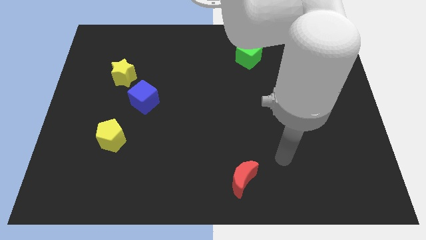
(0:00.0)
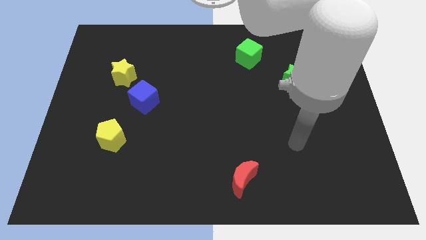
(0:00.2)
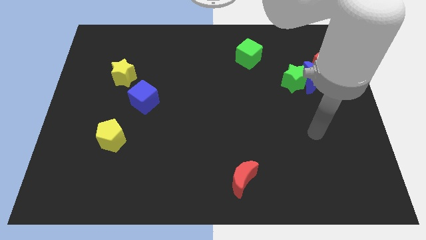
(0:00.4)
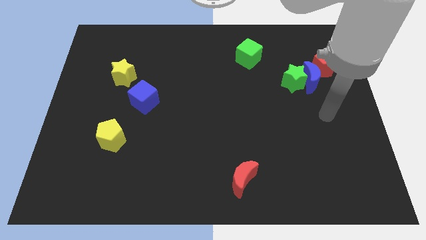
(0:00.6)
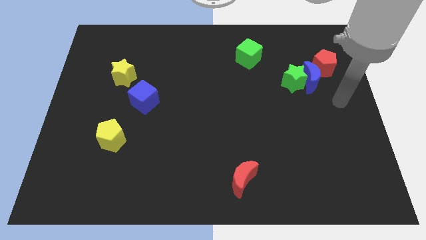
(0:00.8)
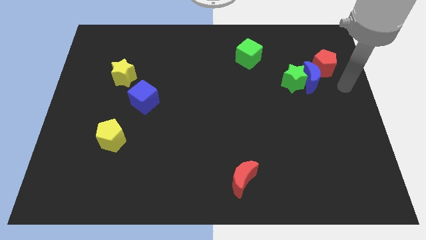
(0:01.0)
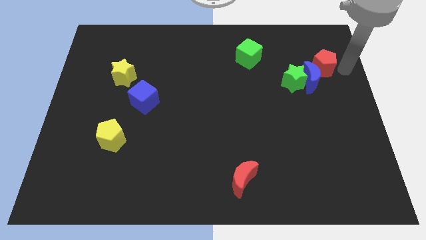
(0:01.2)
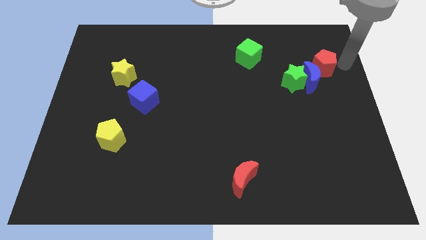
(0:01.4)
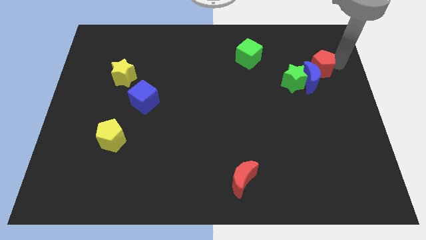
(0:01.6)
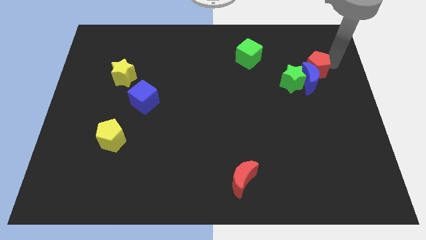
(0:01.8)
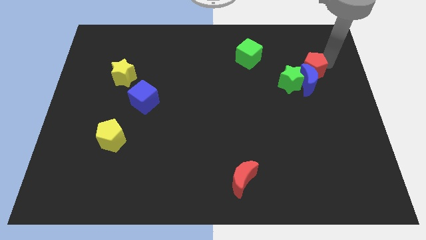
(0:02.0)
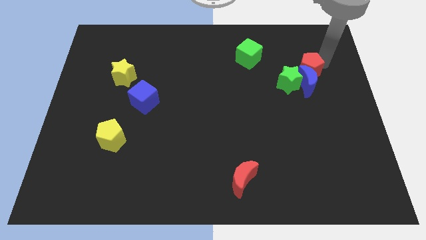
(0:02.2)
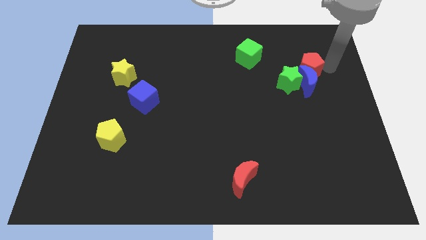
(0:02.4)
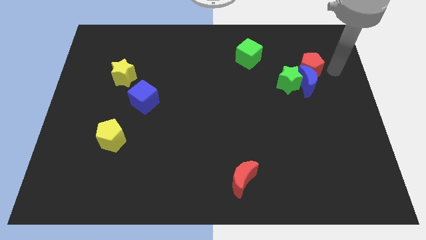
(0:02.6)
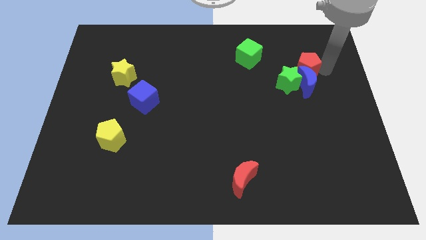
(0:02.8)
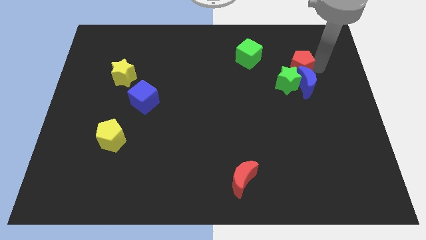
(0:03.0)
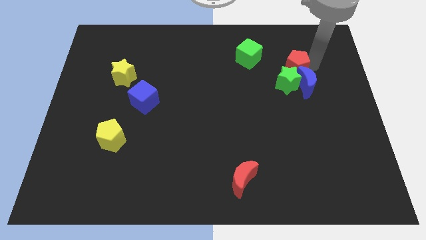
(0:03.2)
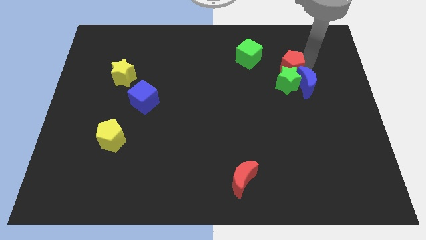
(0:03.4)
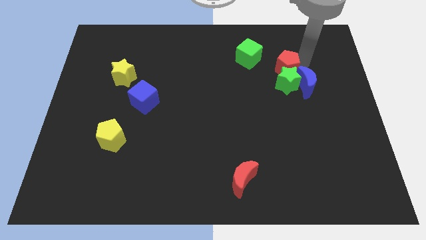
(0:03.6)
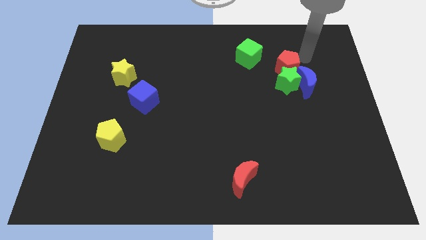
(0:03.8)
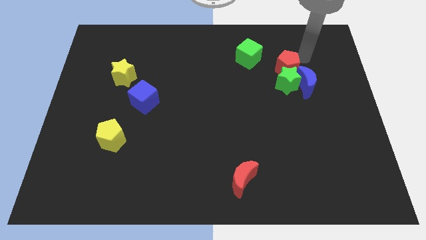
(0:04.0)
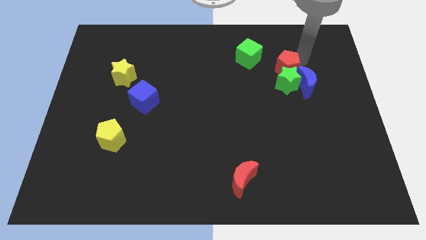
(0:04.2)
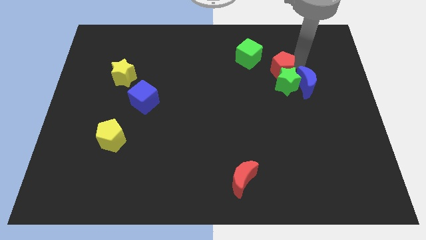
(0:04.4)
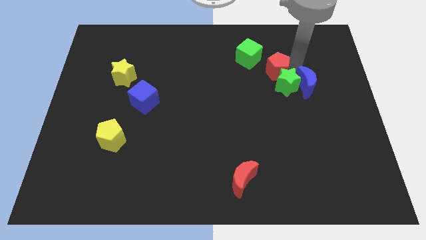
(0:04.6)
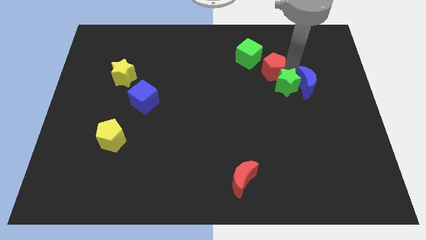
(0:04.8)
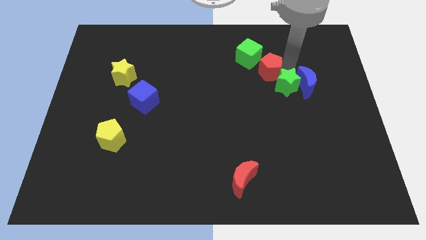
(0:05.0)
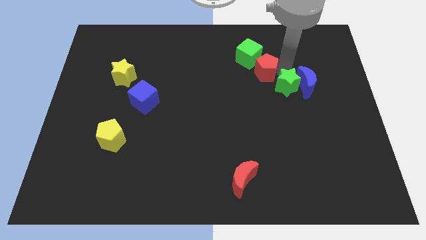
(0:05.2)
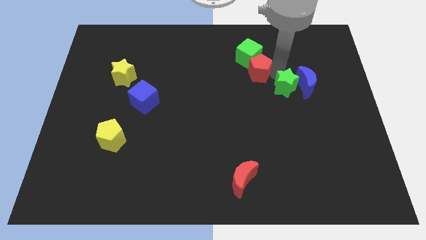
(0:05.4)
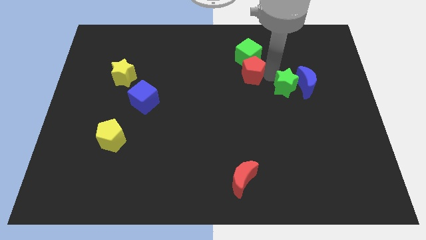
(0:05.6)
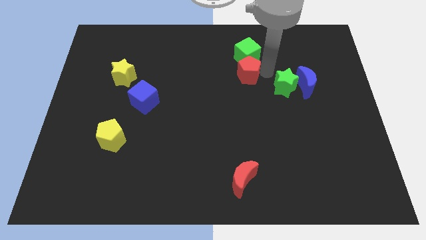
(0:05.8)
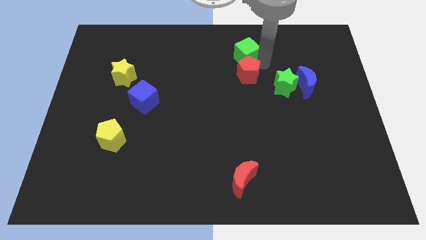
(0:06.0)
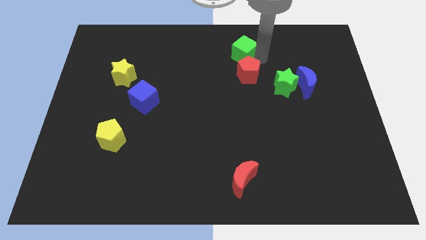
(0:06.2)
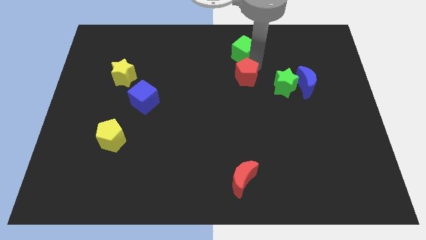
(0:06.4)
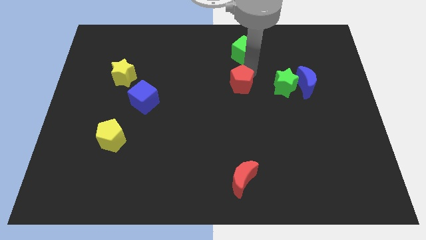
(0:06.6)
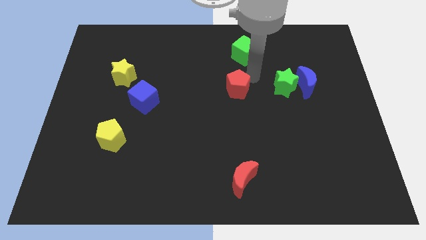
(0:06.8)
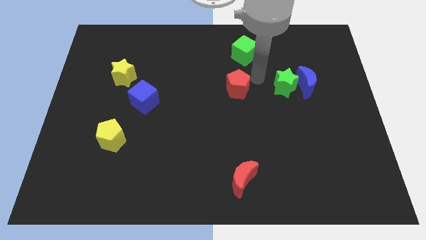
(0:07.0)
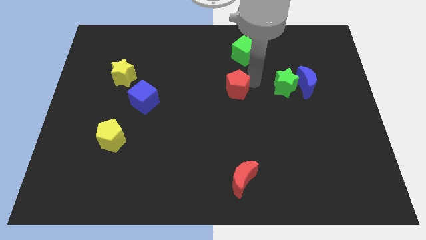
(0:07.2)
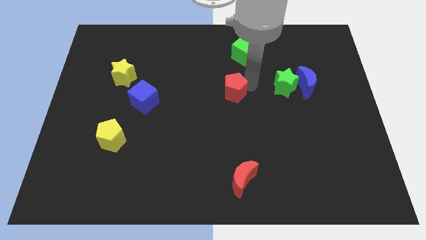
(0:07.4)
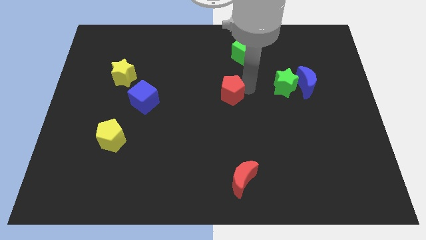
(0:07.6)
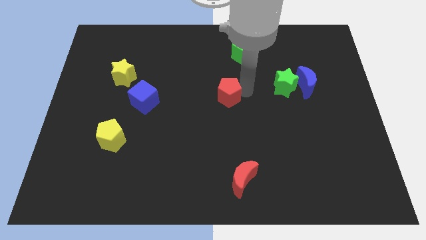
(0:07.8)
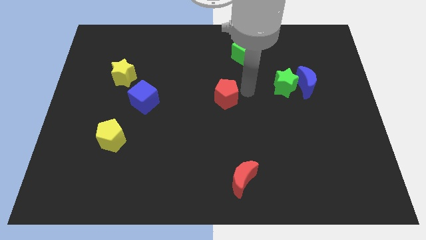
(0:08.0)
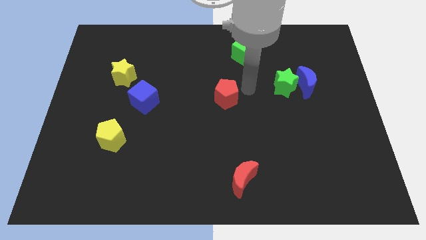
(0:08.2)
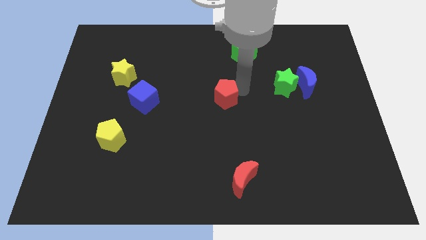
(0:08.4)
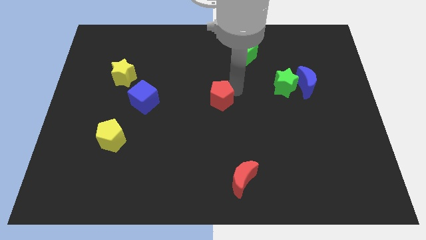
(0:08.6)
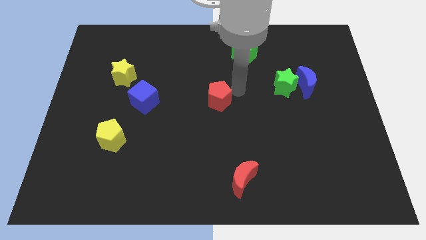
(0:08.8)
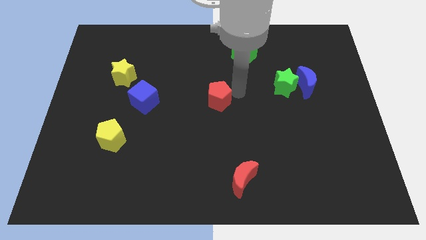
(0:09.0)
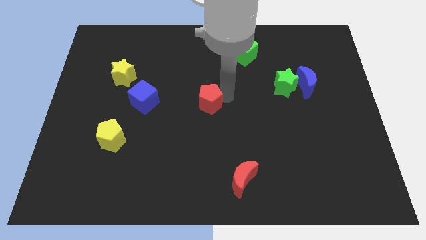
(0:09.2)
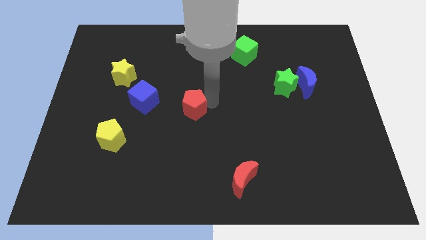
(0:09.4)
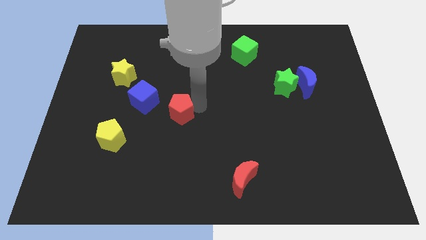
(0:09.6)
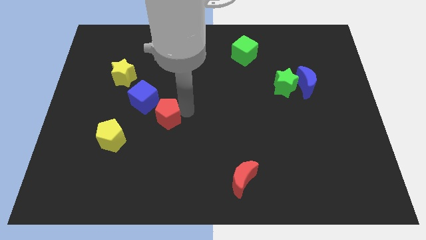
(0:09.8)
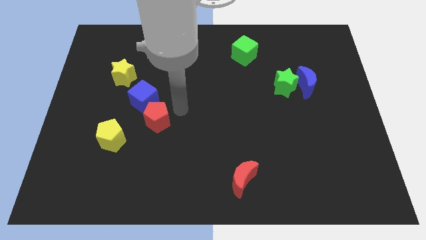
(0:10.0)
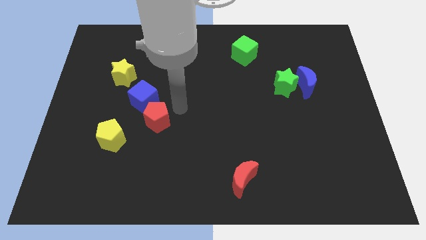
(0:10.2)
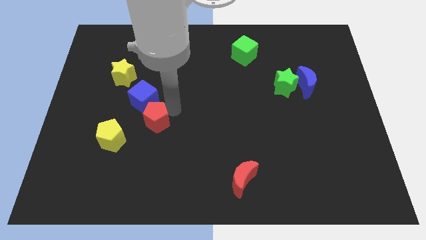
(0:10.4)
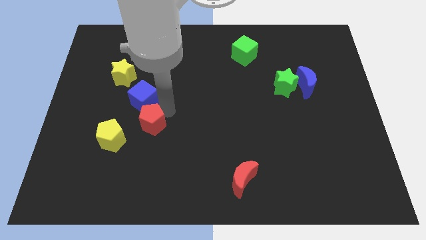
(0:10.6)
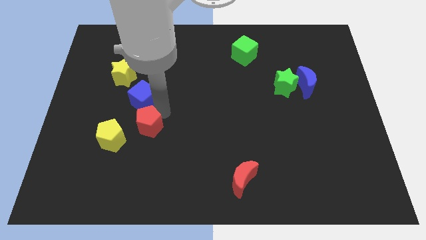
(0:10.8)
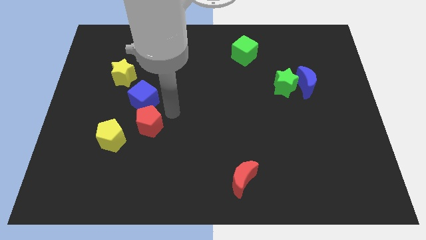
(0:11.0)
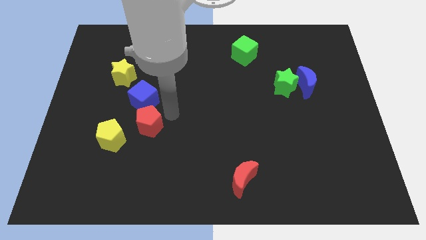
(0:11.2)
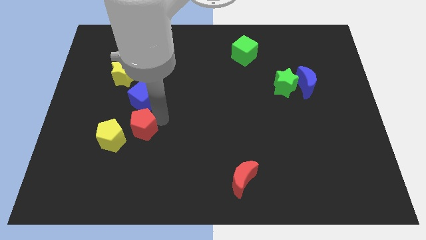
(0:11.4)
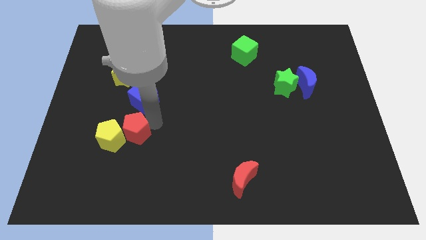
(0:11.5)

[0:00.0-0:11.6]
put the red pentagon to the yellow pentagon

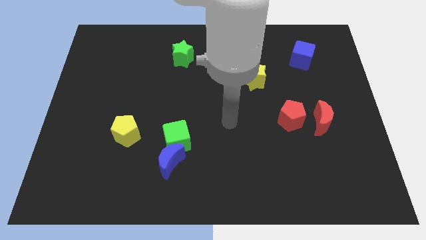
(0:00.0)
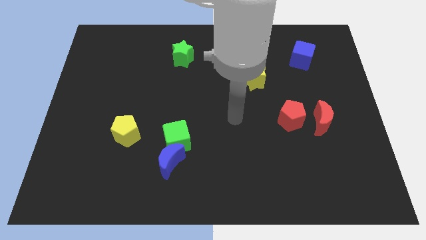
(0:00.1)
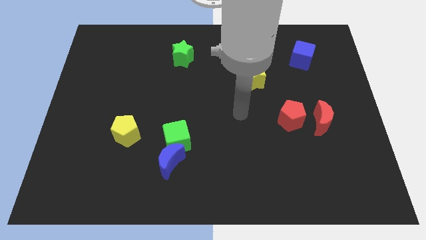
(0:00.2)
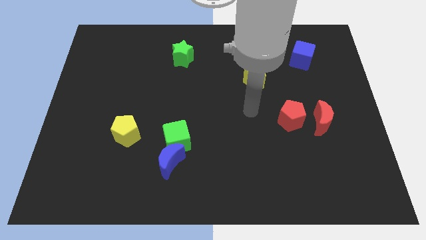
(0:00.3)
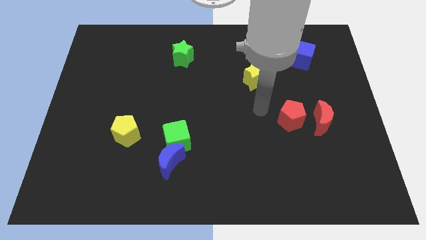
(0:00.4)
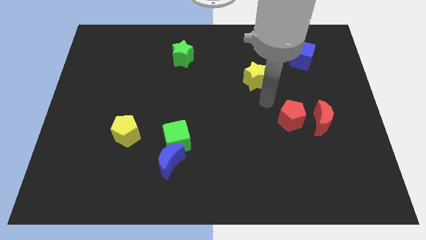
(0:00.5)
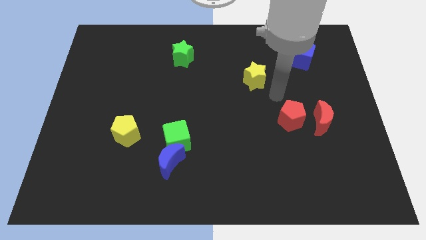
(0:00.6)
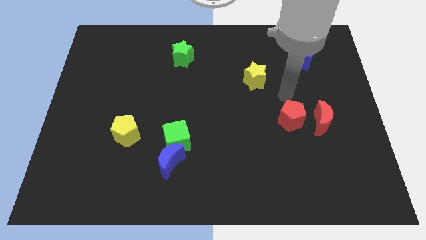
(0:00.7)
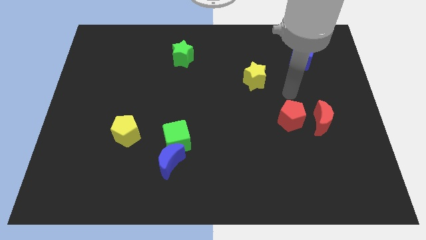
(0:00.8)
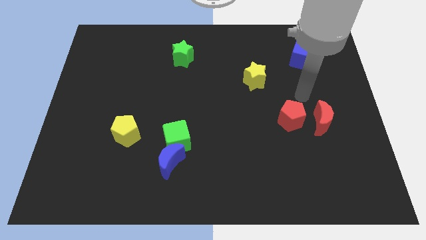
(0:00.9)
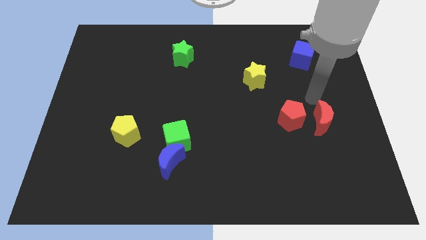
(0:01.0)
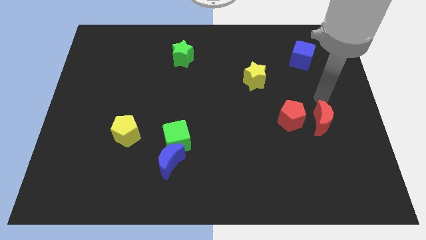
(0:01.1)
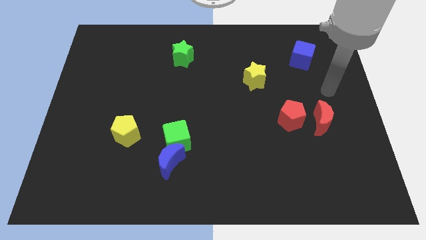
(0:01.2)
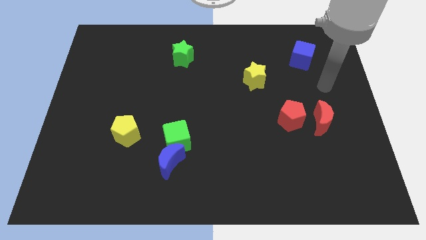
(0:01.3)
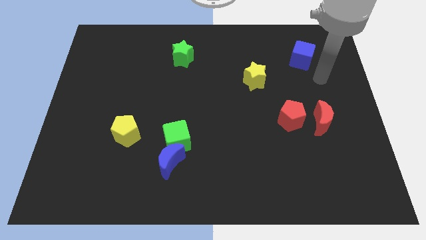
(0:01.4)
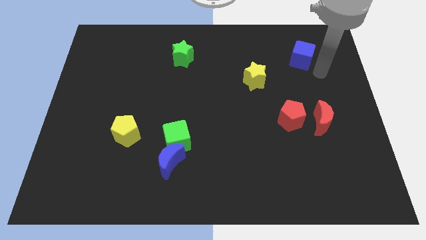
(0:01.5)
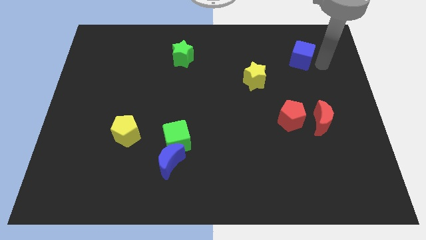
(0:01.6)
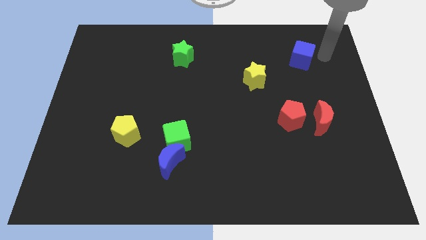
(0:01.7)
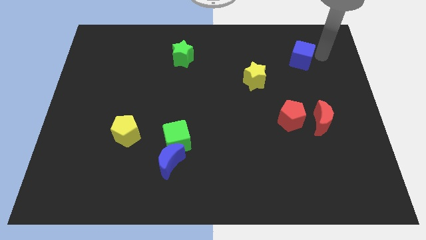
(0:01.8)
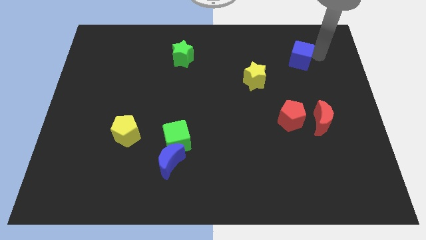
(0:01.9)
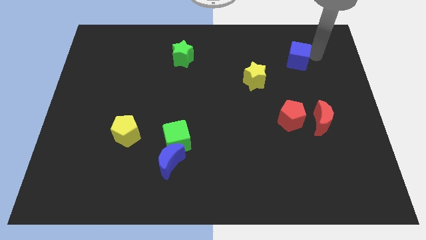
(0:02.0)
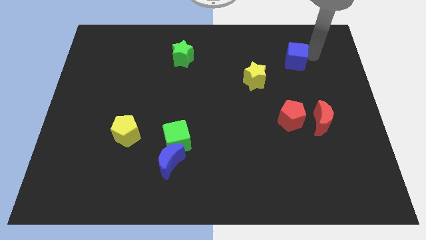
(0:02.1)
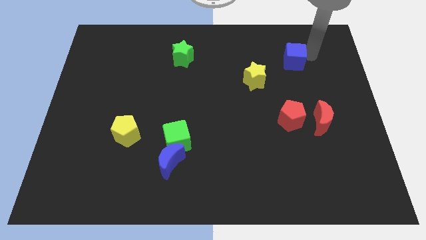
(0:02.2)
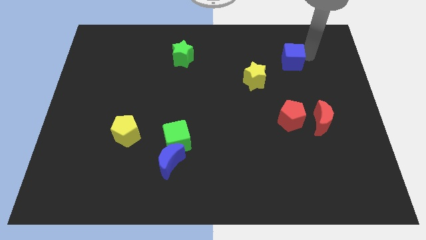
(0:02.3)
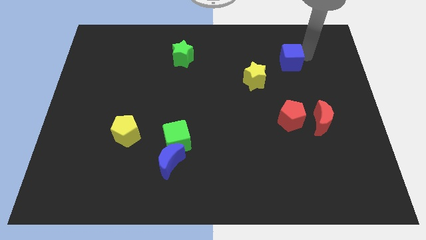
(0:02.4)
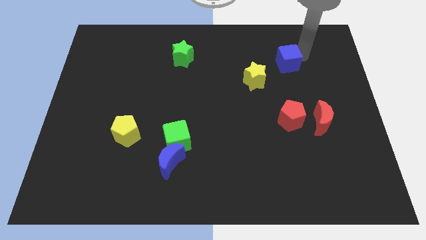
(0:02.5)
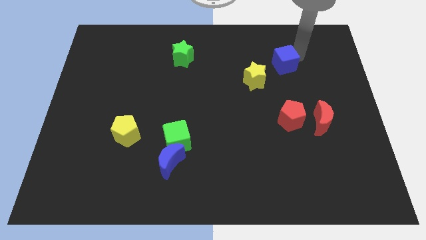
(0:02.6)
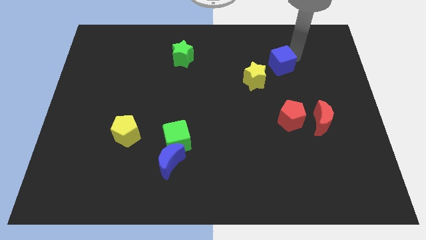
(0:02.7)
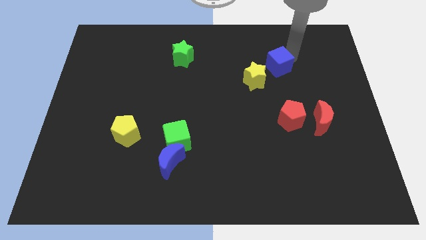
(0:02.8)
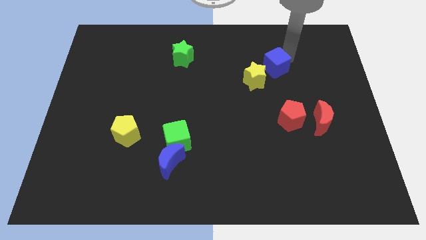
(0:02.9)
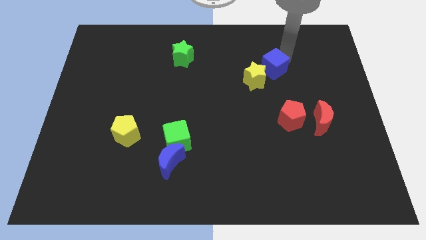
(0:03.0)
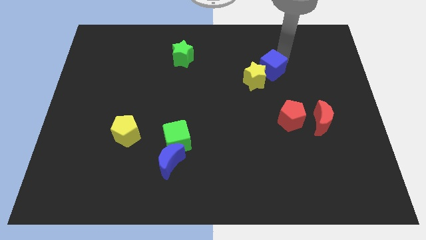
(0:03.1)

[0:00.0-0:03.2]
slide the blue cube close to the yellow star
